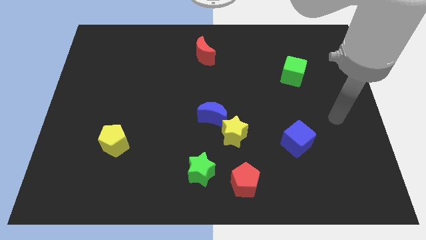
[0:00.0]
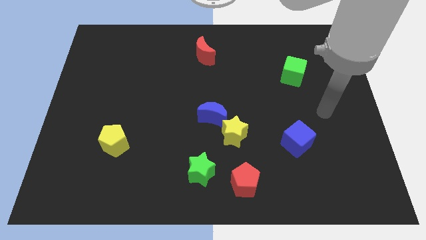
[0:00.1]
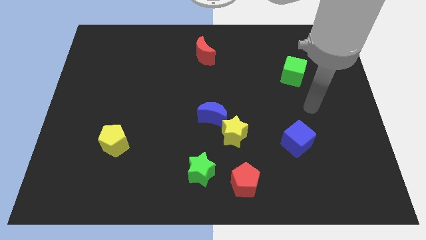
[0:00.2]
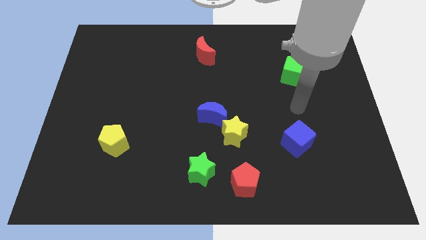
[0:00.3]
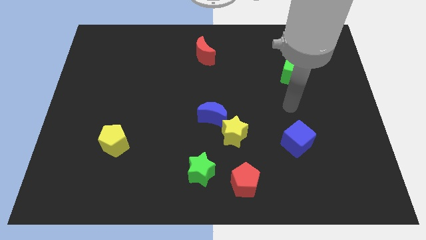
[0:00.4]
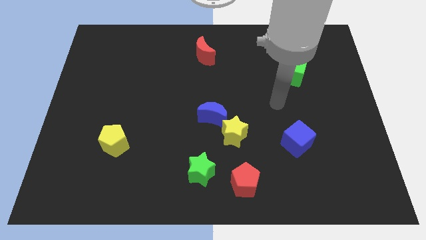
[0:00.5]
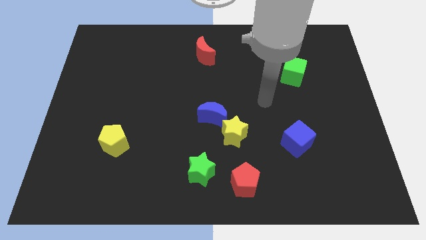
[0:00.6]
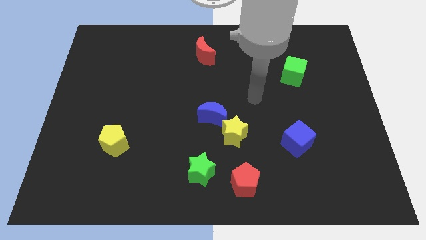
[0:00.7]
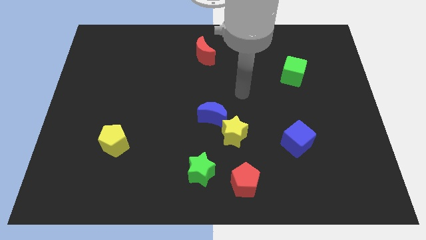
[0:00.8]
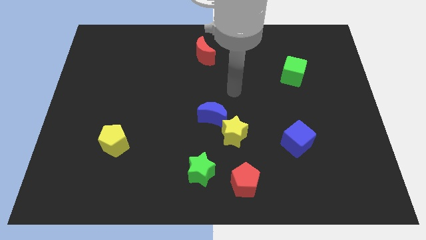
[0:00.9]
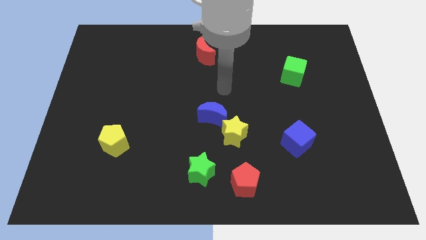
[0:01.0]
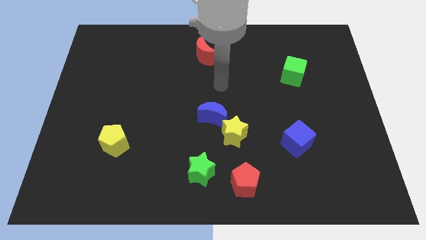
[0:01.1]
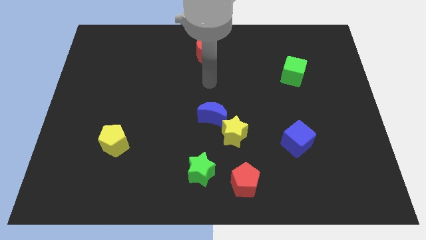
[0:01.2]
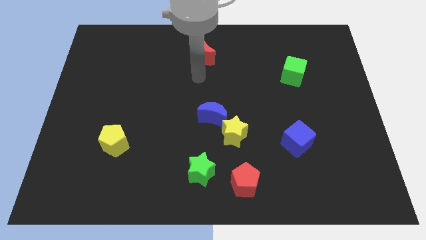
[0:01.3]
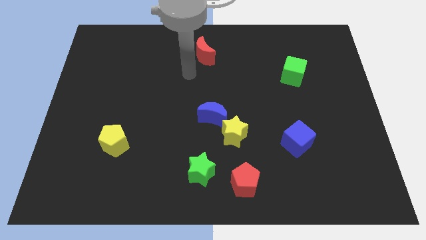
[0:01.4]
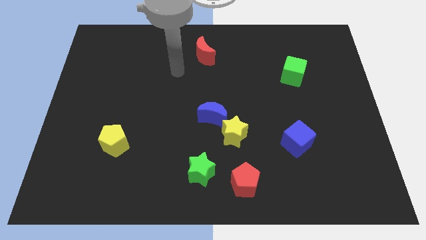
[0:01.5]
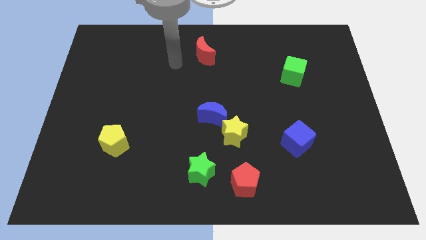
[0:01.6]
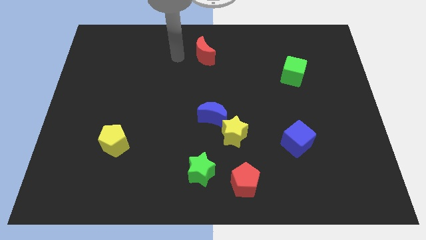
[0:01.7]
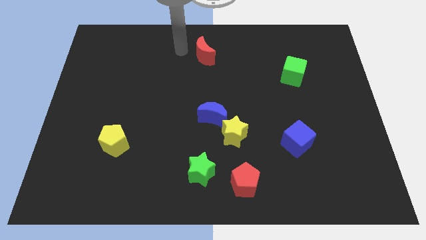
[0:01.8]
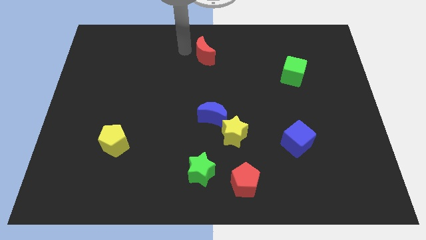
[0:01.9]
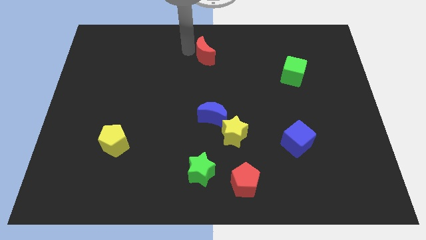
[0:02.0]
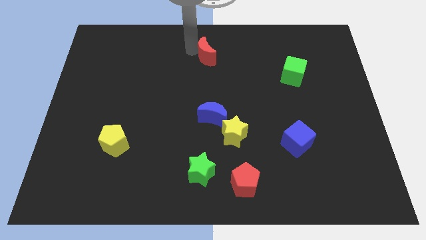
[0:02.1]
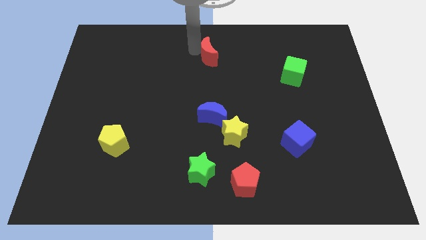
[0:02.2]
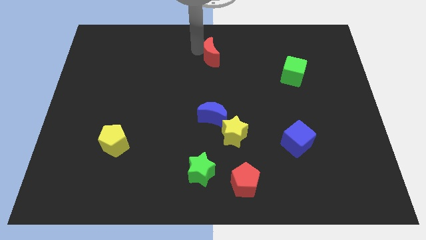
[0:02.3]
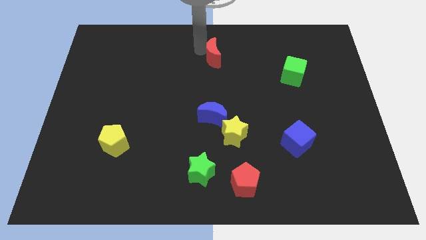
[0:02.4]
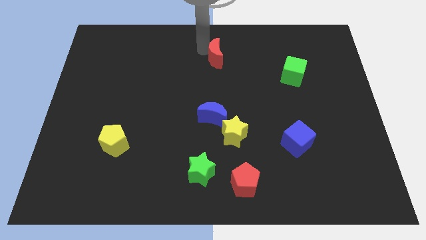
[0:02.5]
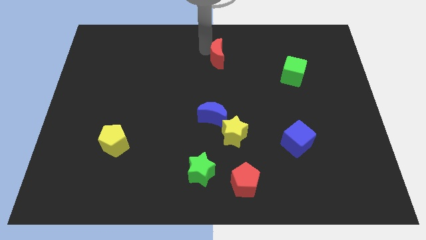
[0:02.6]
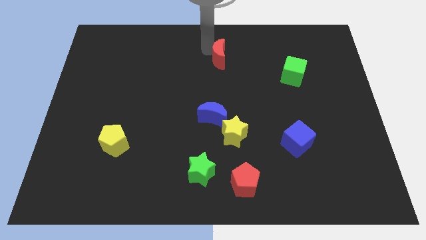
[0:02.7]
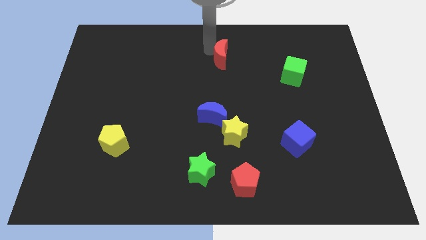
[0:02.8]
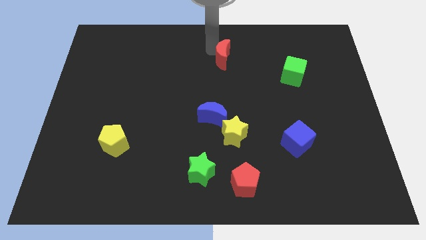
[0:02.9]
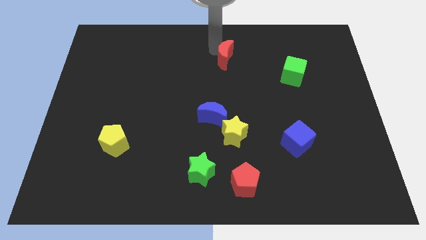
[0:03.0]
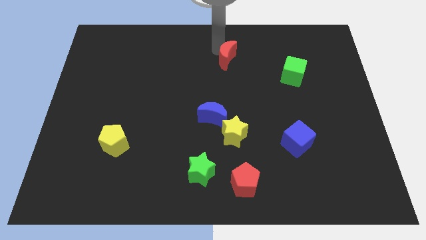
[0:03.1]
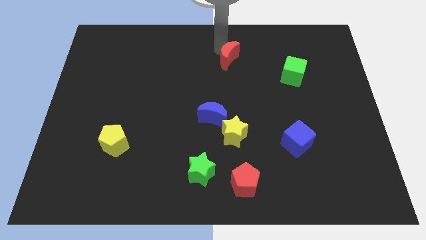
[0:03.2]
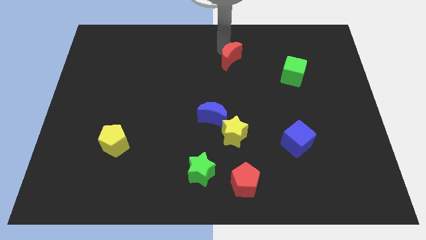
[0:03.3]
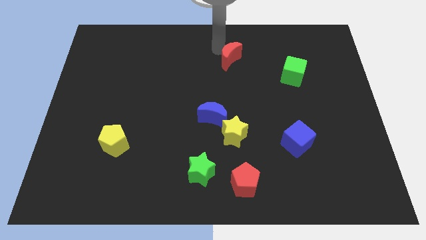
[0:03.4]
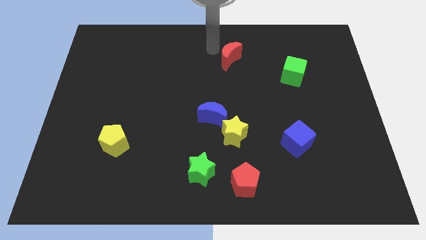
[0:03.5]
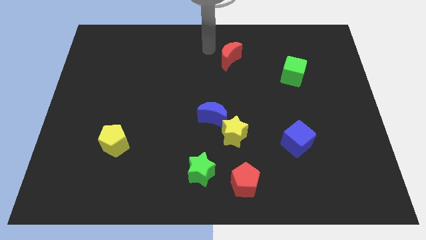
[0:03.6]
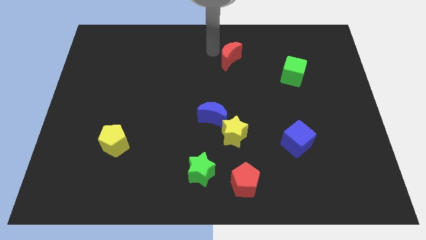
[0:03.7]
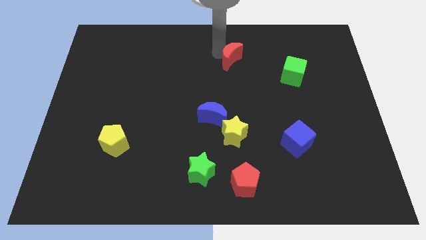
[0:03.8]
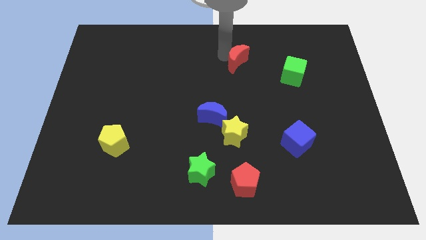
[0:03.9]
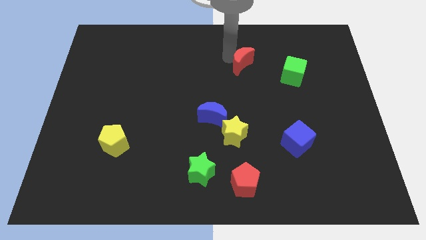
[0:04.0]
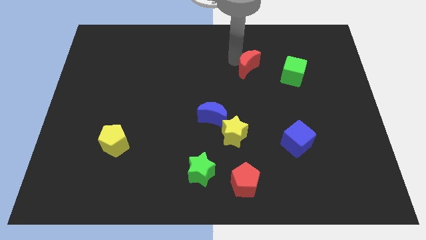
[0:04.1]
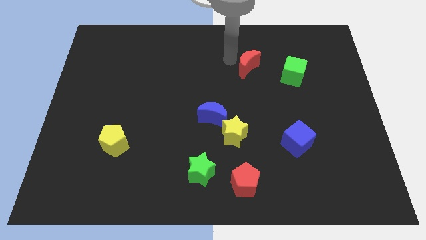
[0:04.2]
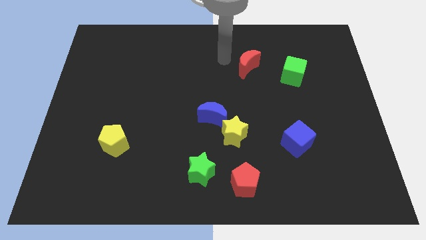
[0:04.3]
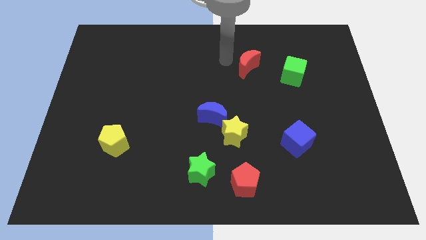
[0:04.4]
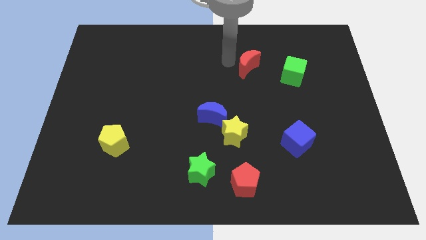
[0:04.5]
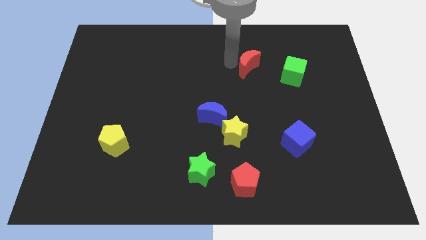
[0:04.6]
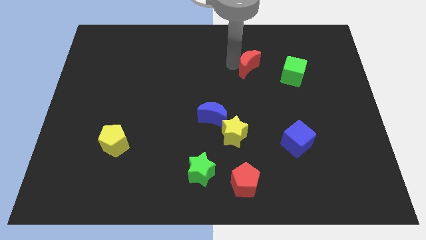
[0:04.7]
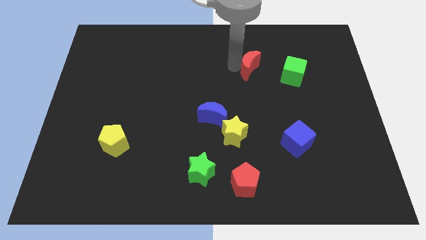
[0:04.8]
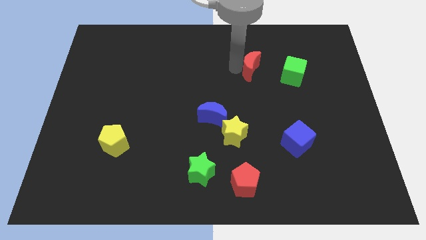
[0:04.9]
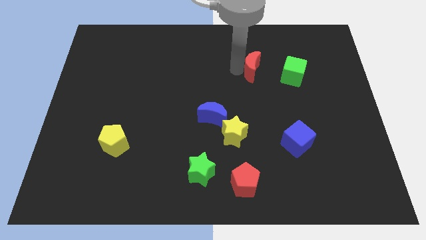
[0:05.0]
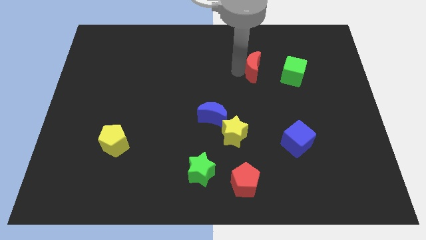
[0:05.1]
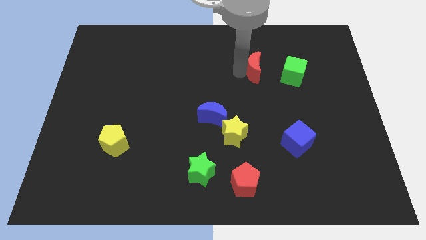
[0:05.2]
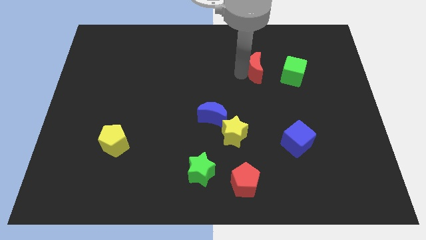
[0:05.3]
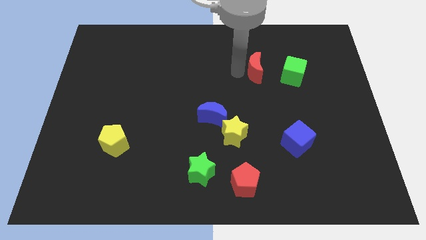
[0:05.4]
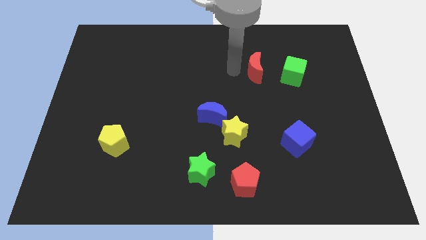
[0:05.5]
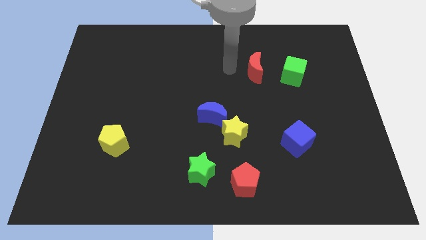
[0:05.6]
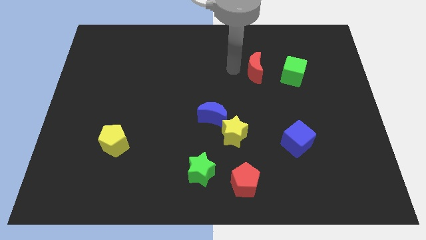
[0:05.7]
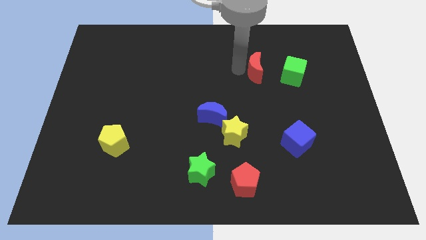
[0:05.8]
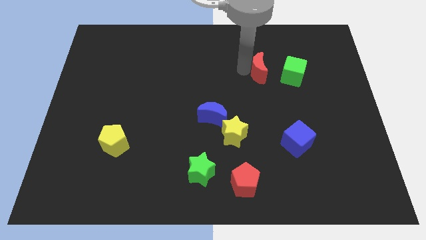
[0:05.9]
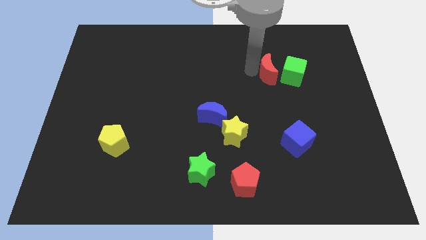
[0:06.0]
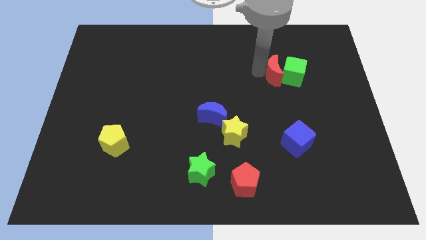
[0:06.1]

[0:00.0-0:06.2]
put the red moon to the green cube

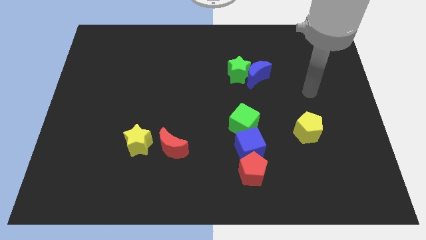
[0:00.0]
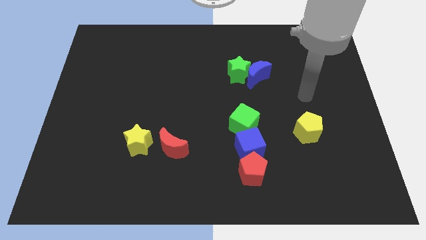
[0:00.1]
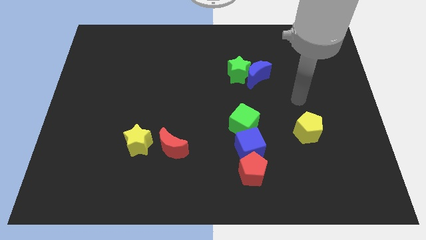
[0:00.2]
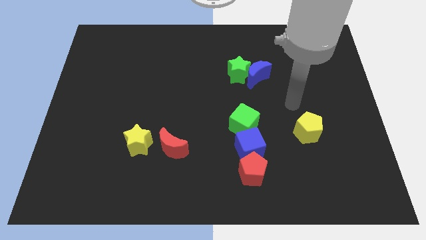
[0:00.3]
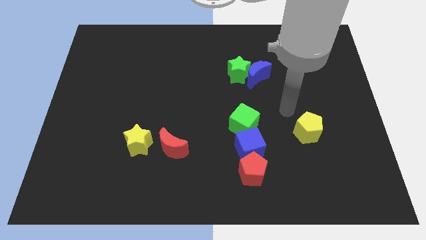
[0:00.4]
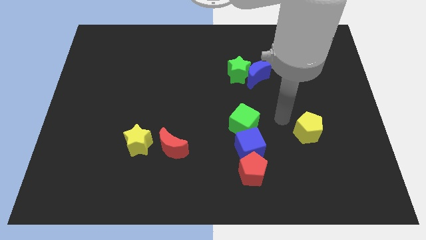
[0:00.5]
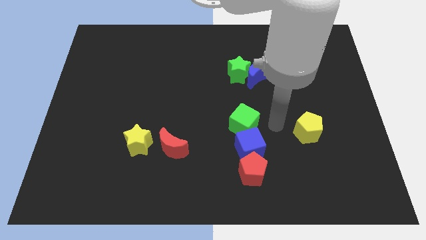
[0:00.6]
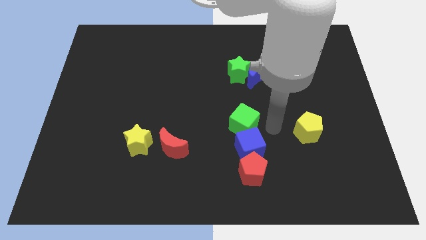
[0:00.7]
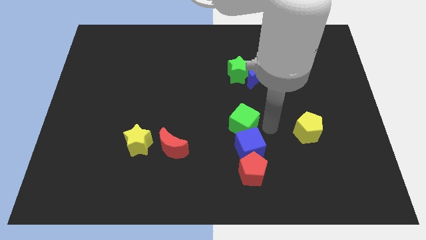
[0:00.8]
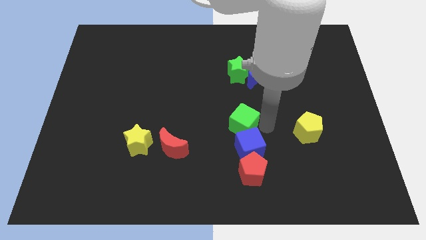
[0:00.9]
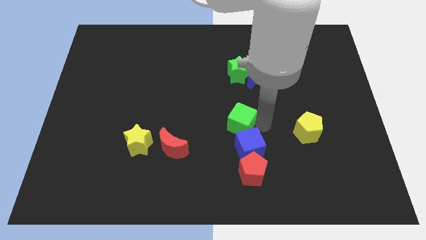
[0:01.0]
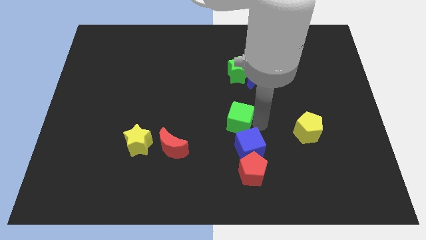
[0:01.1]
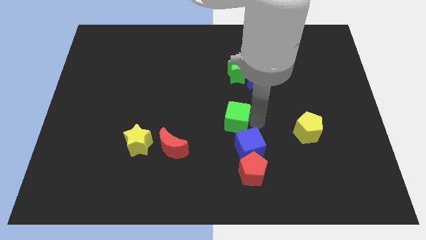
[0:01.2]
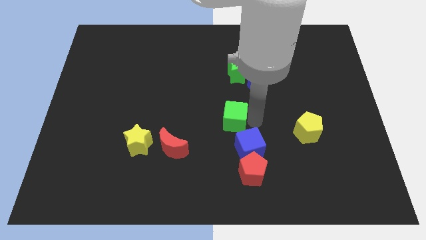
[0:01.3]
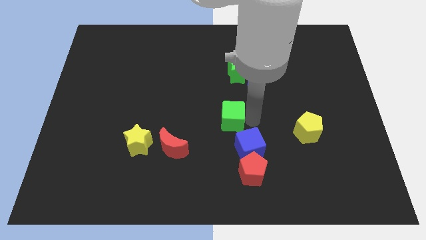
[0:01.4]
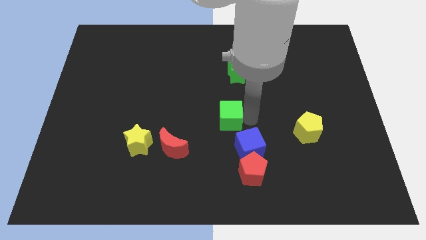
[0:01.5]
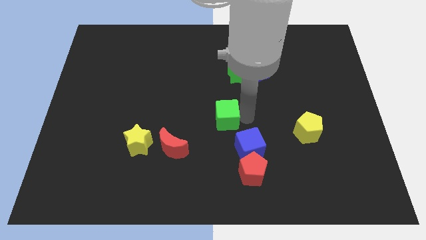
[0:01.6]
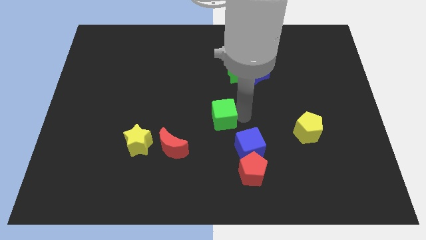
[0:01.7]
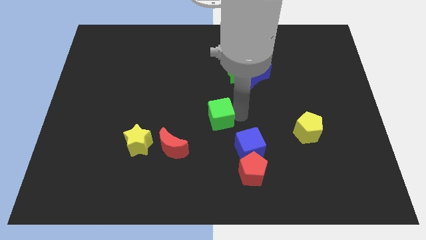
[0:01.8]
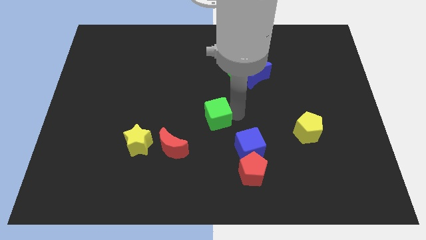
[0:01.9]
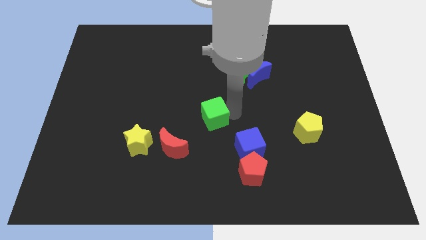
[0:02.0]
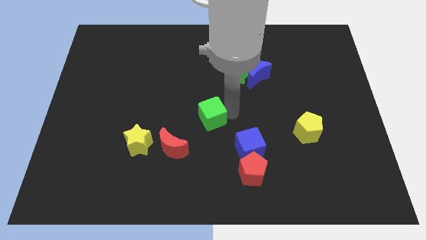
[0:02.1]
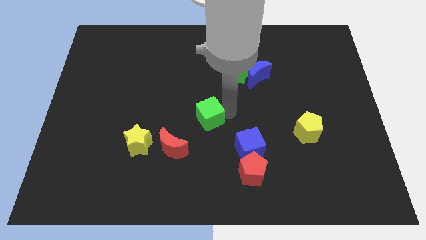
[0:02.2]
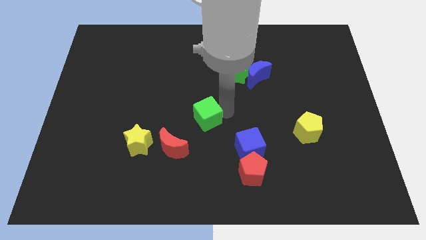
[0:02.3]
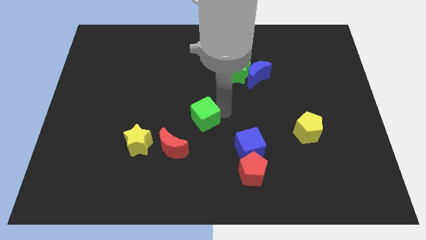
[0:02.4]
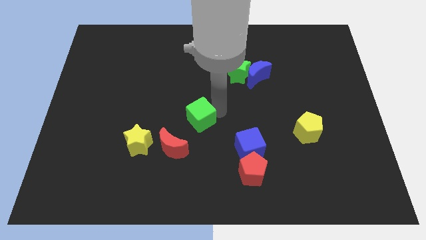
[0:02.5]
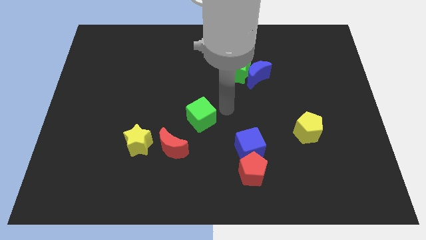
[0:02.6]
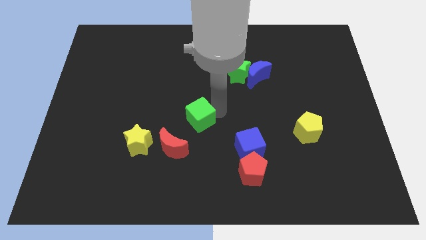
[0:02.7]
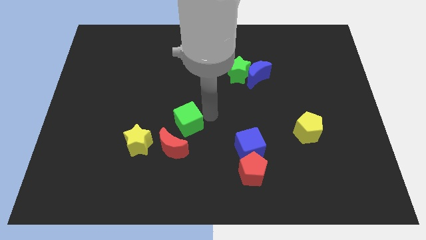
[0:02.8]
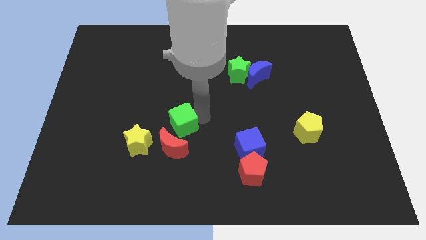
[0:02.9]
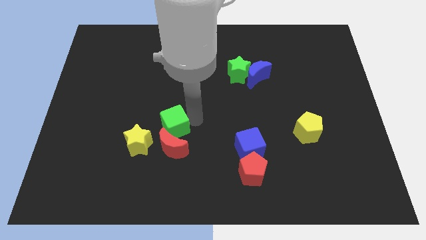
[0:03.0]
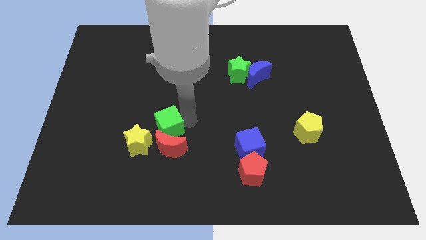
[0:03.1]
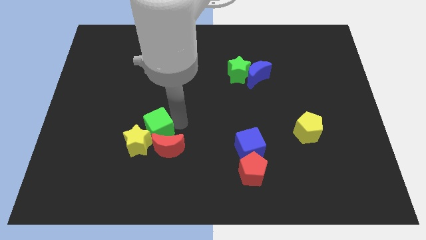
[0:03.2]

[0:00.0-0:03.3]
put the green cube next to the yellow star
